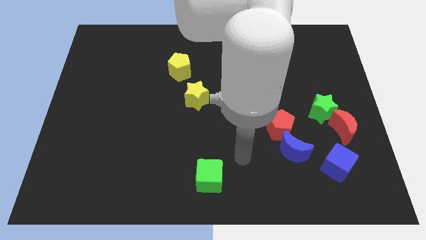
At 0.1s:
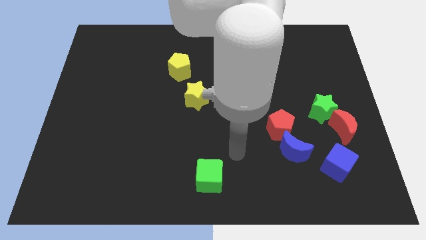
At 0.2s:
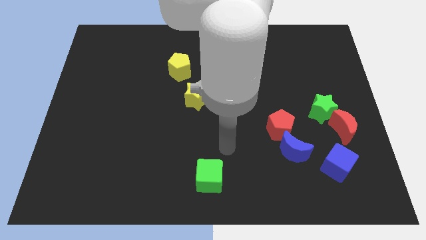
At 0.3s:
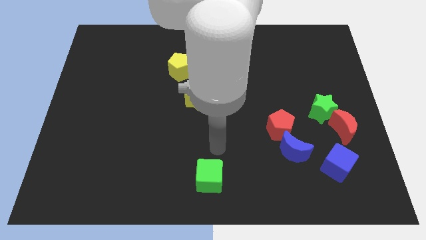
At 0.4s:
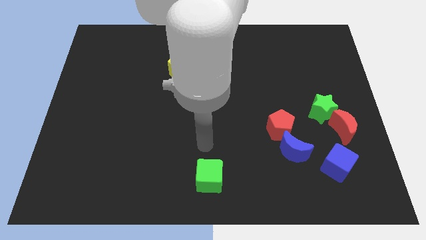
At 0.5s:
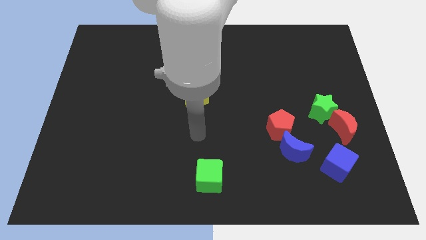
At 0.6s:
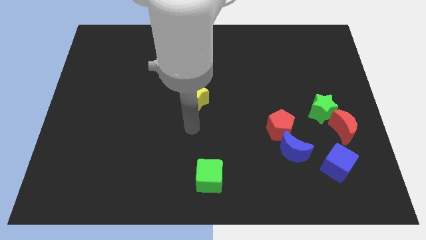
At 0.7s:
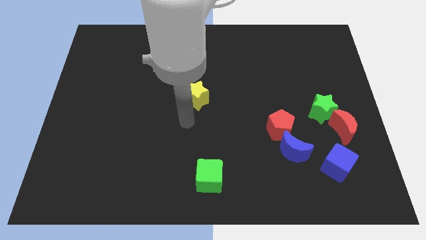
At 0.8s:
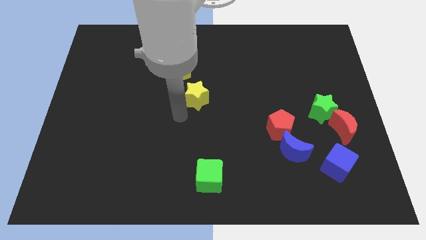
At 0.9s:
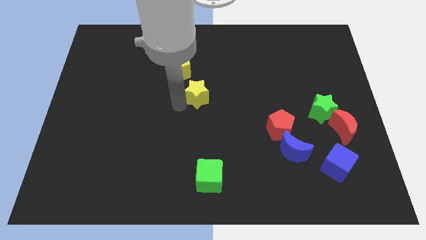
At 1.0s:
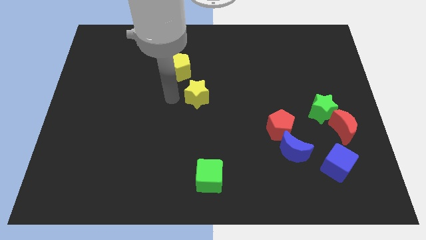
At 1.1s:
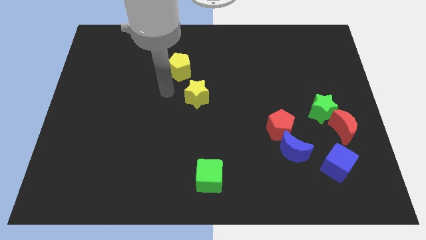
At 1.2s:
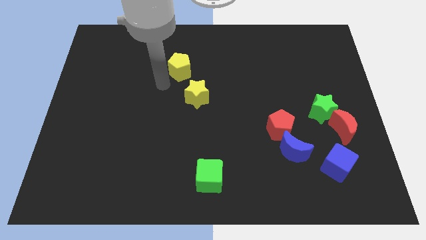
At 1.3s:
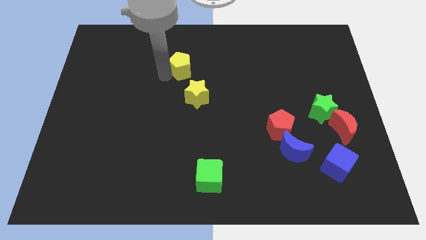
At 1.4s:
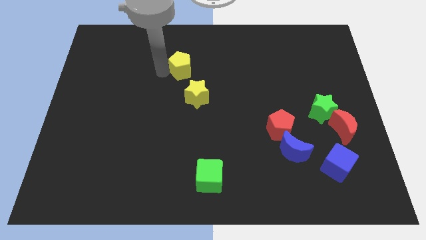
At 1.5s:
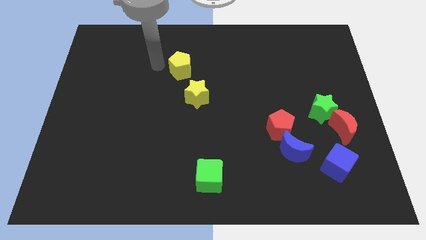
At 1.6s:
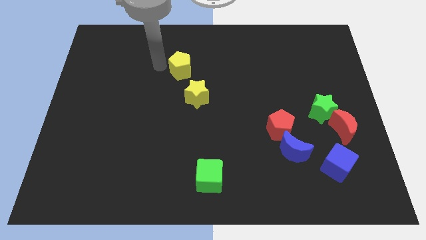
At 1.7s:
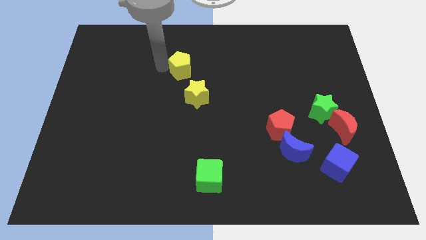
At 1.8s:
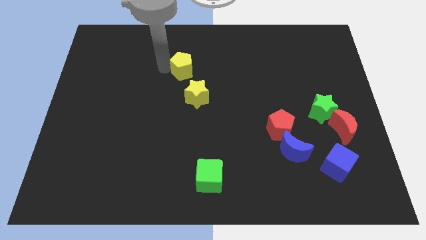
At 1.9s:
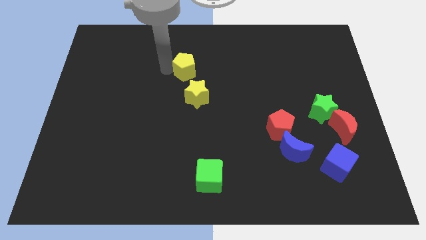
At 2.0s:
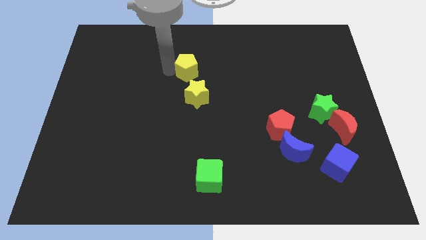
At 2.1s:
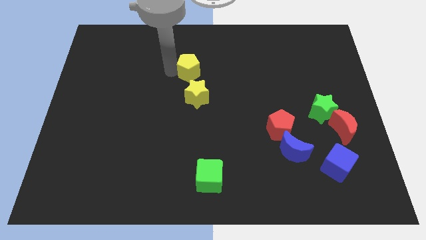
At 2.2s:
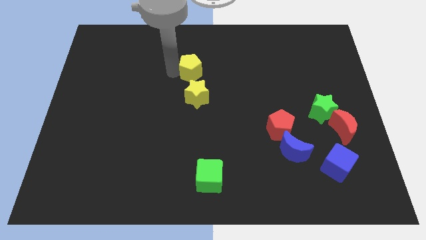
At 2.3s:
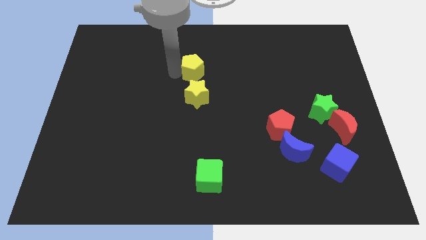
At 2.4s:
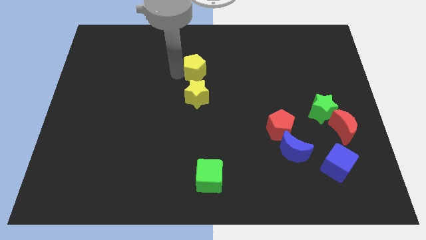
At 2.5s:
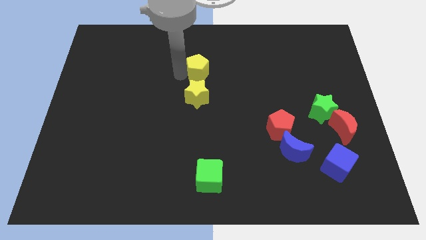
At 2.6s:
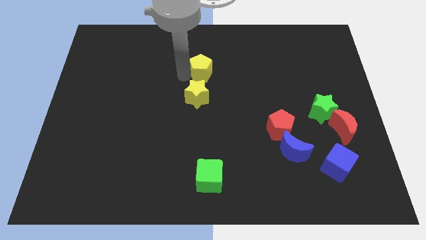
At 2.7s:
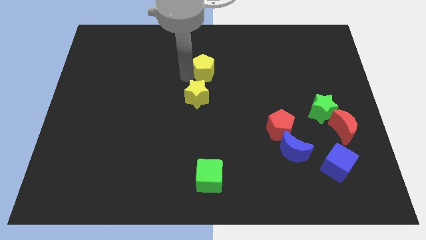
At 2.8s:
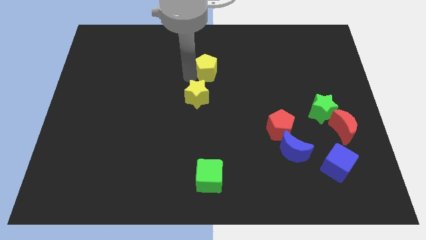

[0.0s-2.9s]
push the yellow pentagon right slightly

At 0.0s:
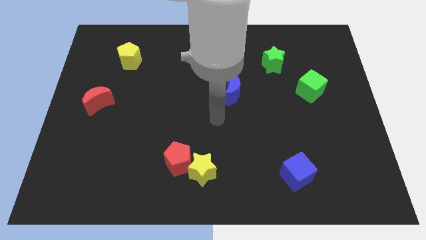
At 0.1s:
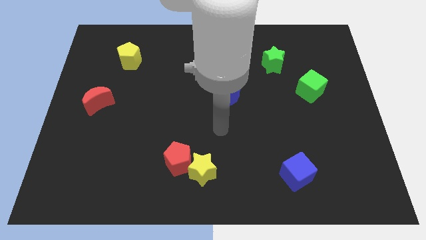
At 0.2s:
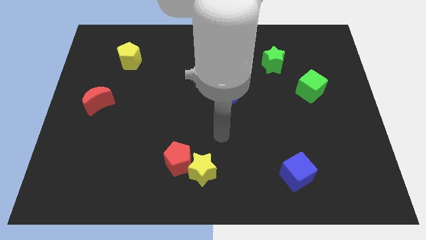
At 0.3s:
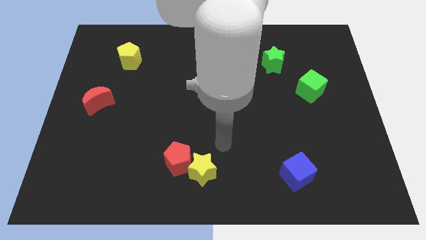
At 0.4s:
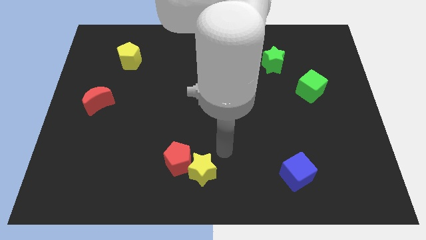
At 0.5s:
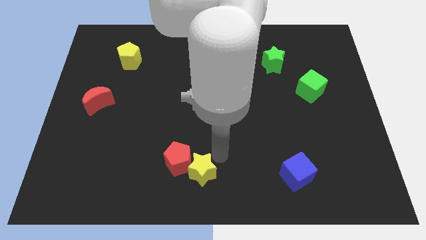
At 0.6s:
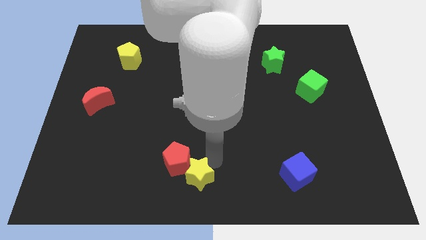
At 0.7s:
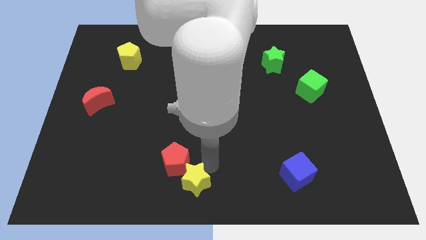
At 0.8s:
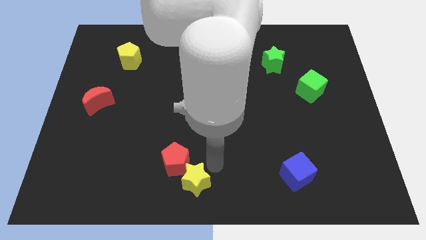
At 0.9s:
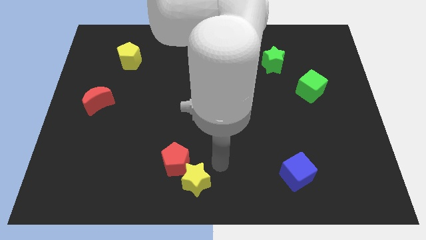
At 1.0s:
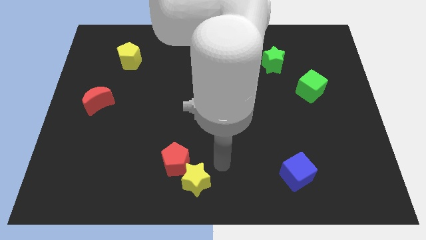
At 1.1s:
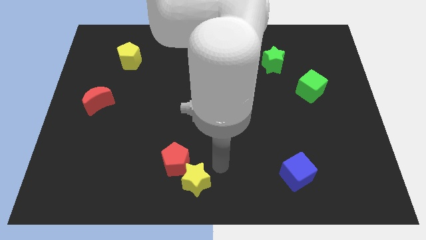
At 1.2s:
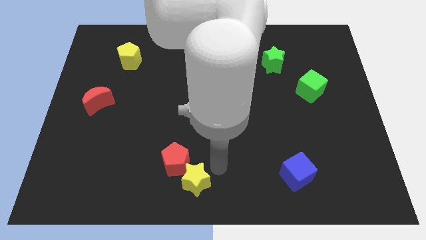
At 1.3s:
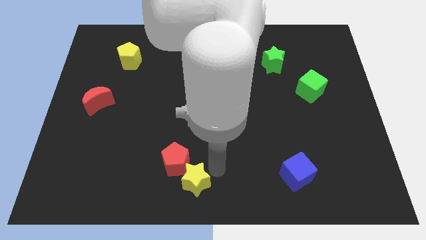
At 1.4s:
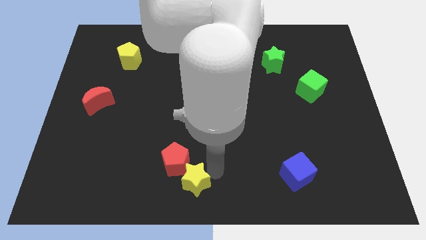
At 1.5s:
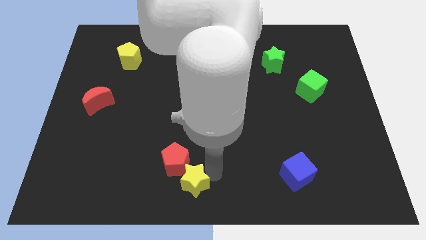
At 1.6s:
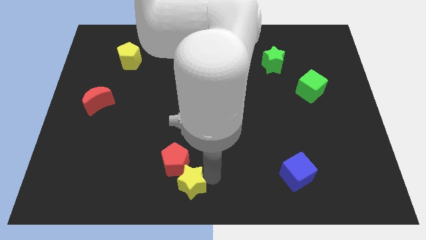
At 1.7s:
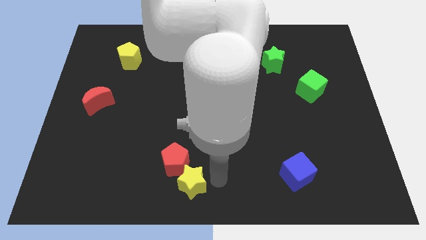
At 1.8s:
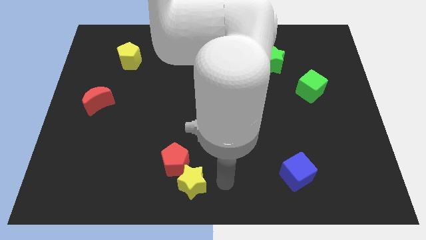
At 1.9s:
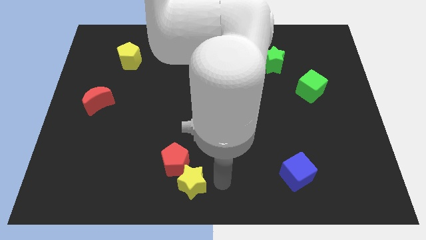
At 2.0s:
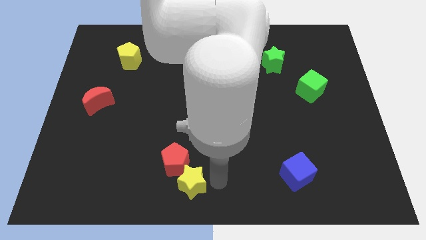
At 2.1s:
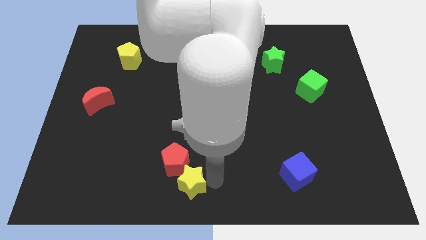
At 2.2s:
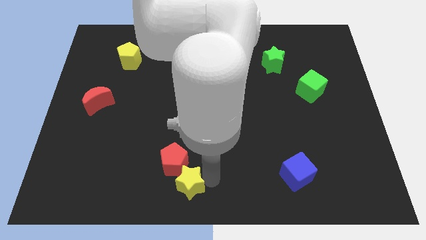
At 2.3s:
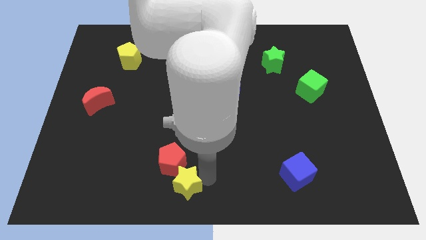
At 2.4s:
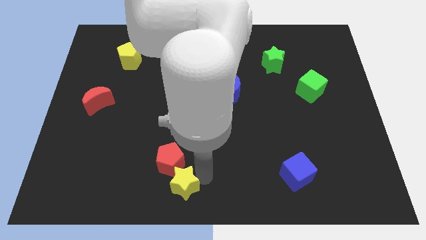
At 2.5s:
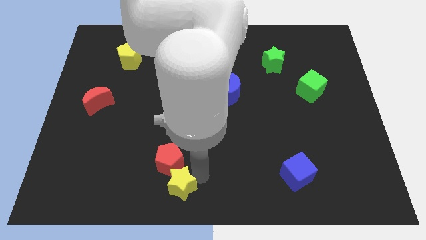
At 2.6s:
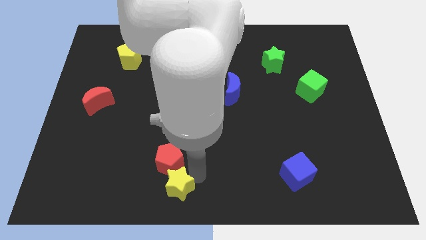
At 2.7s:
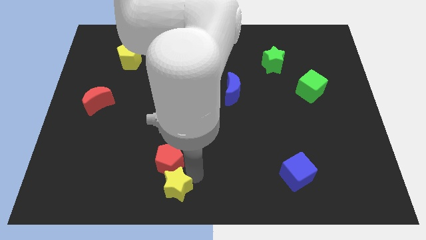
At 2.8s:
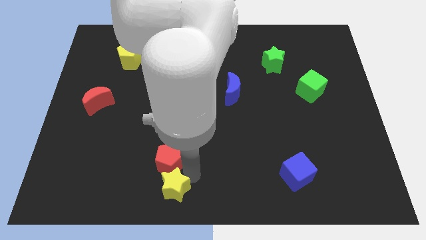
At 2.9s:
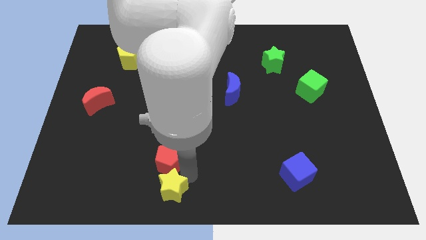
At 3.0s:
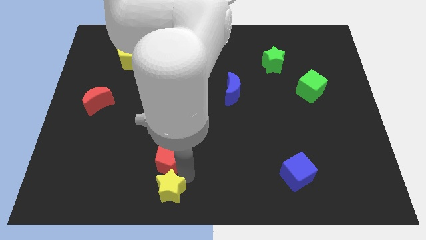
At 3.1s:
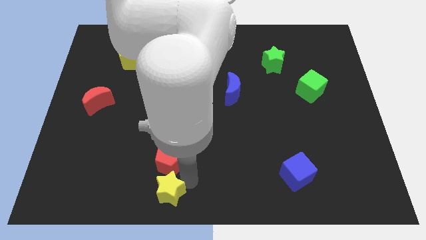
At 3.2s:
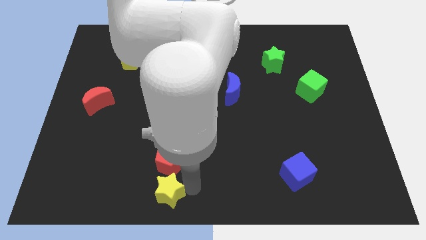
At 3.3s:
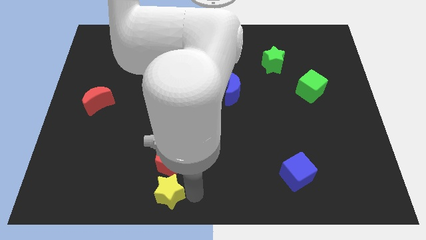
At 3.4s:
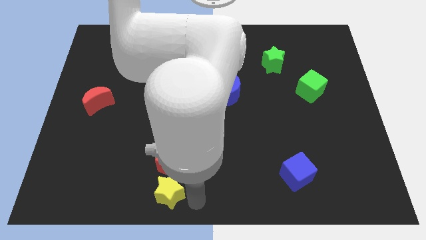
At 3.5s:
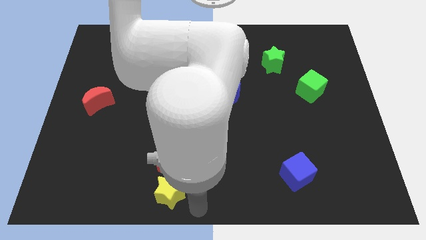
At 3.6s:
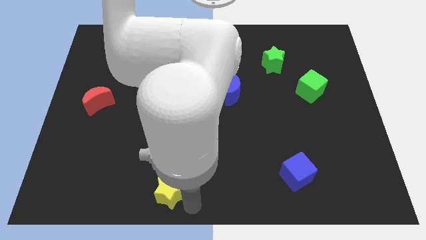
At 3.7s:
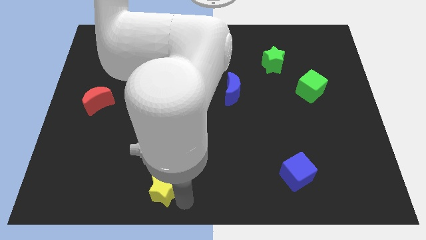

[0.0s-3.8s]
slightly push the yellow star to the left

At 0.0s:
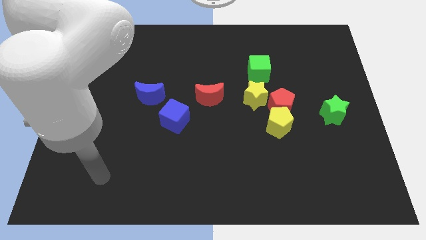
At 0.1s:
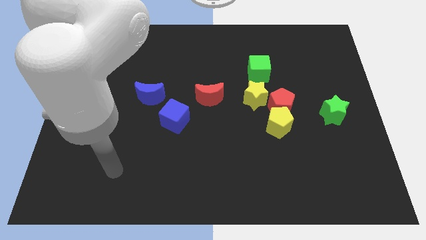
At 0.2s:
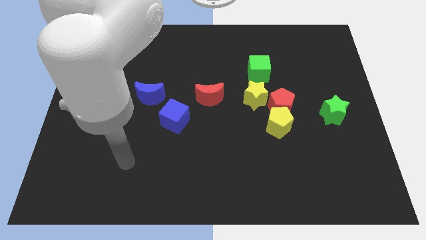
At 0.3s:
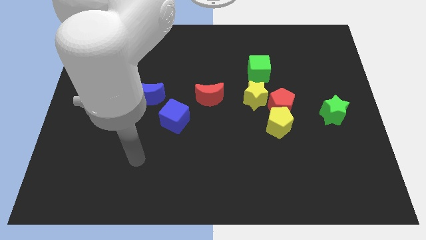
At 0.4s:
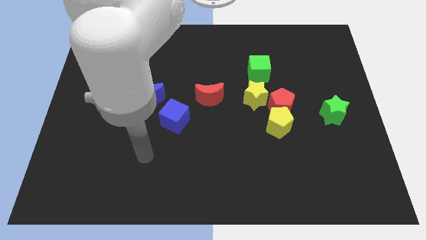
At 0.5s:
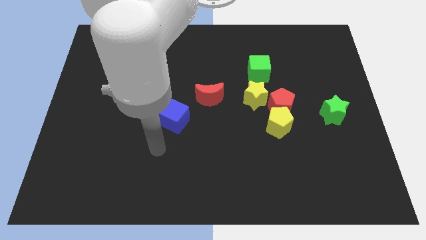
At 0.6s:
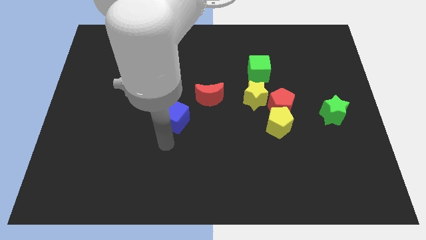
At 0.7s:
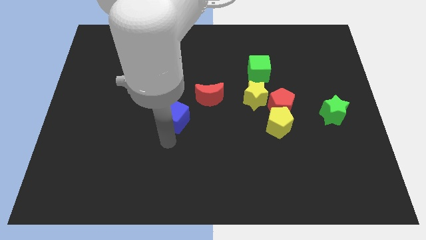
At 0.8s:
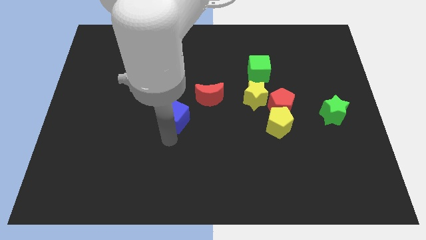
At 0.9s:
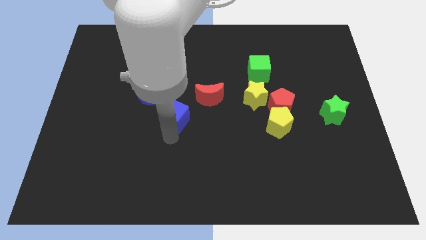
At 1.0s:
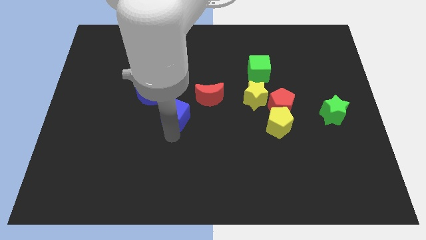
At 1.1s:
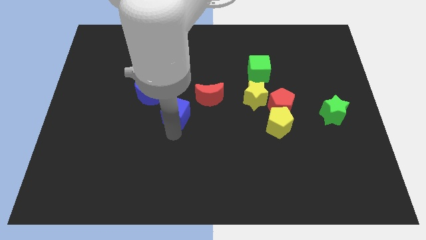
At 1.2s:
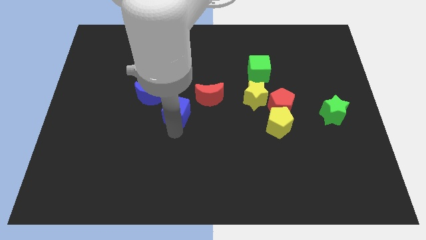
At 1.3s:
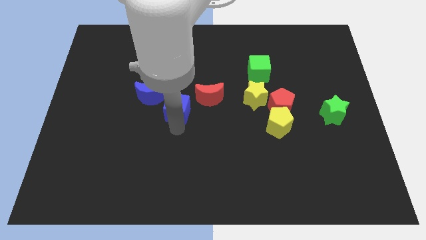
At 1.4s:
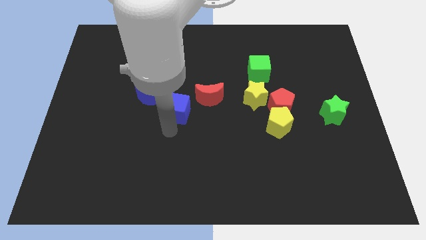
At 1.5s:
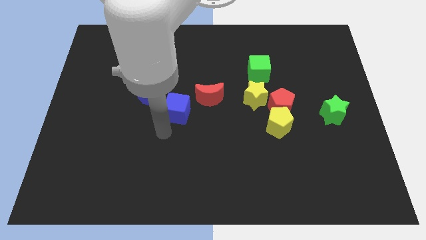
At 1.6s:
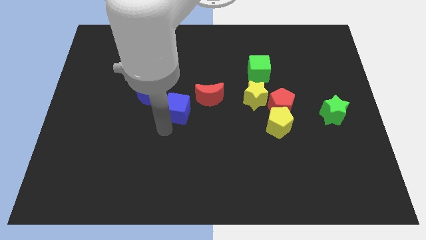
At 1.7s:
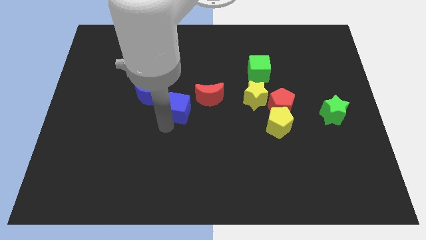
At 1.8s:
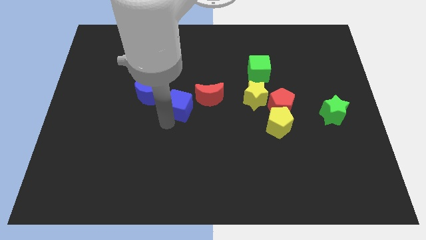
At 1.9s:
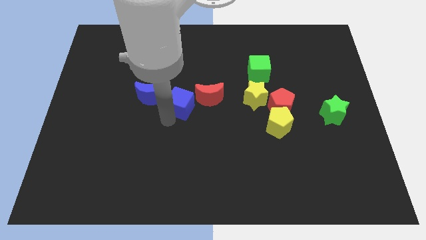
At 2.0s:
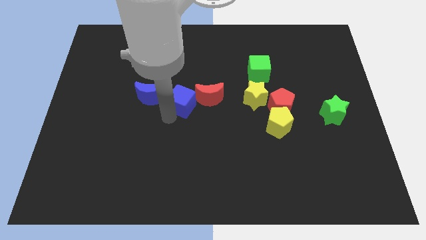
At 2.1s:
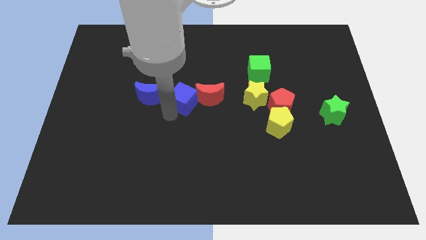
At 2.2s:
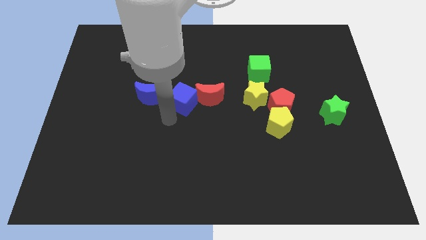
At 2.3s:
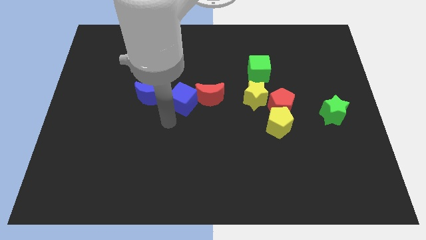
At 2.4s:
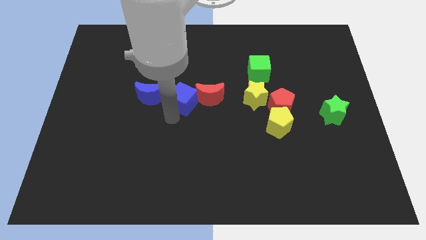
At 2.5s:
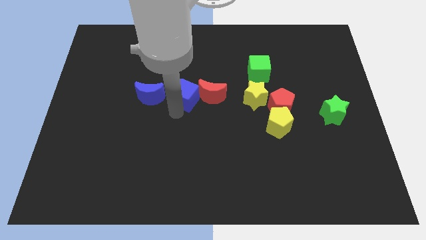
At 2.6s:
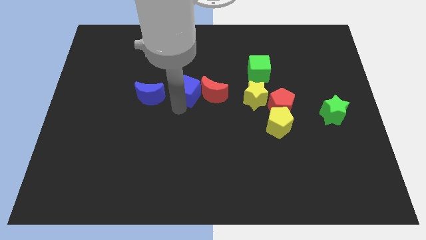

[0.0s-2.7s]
push the blue cube up and right a little
